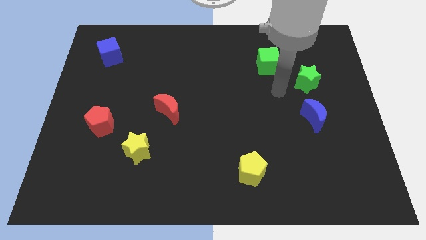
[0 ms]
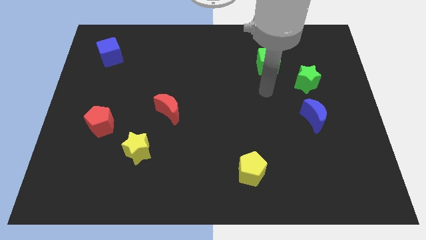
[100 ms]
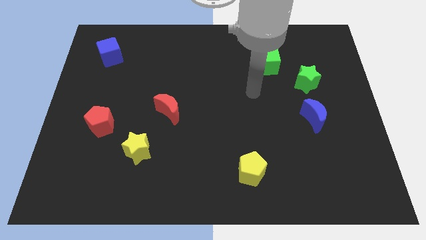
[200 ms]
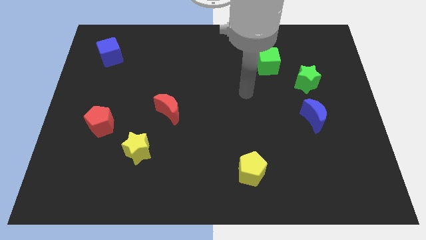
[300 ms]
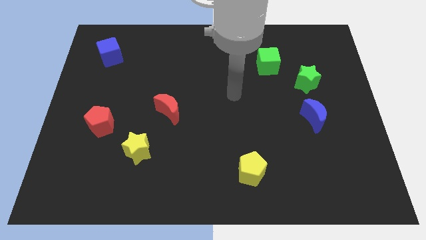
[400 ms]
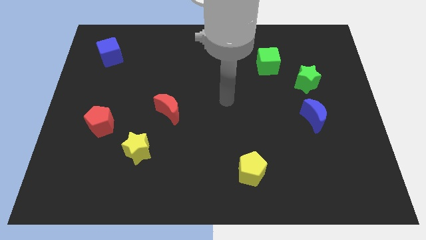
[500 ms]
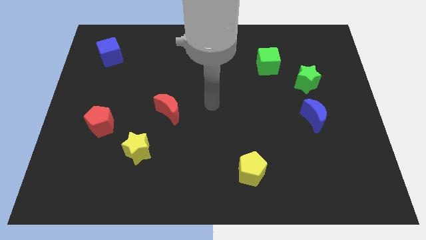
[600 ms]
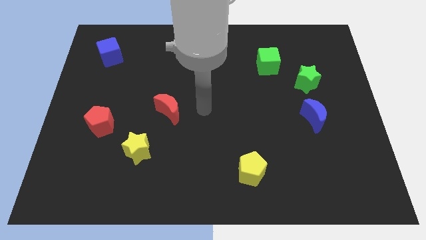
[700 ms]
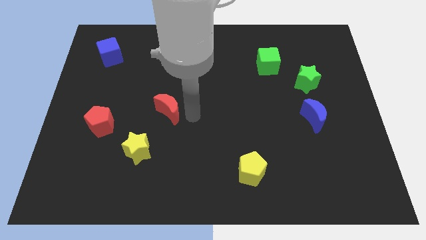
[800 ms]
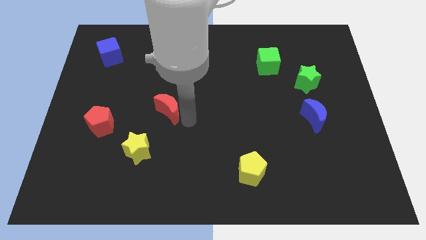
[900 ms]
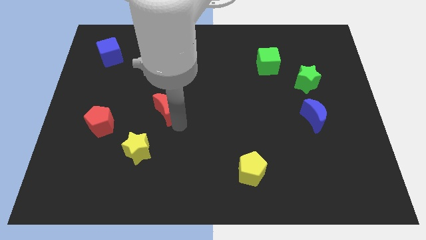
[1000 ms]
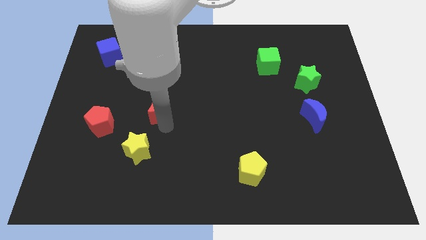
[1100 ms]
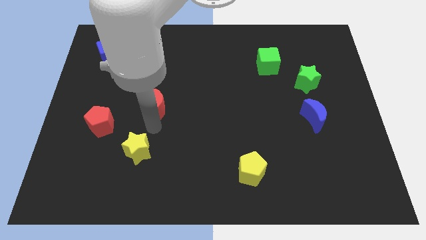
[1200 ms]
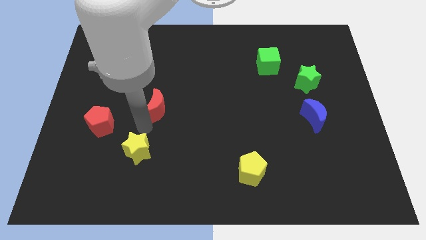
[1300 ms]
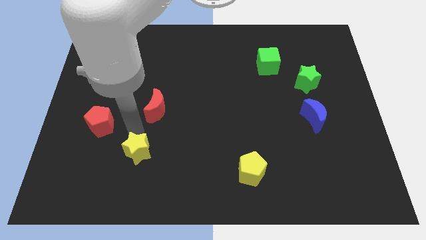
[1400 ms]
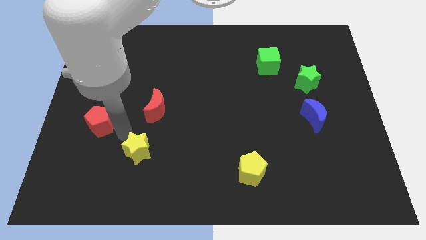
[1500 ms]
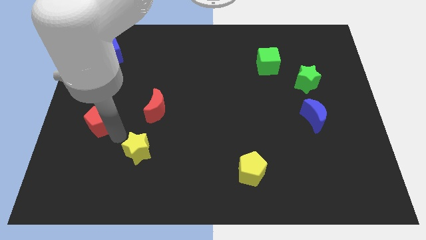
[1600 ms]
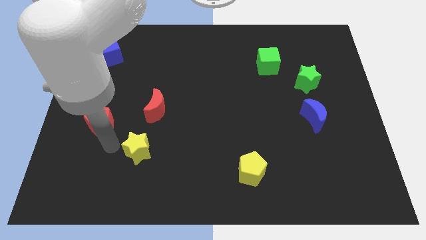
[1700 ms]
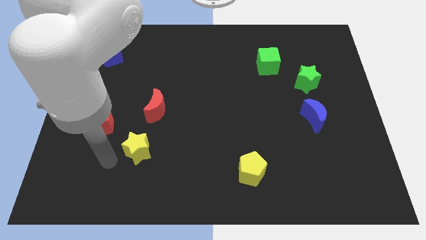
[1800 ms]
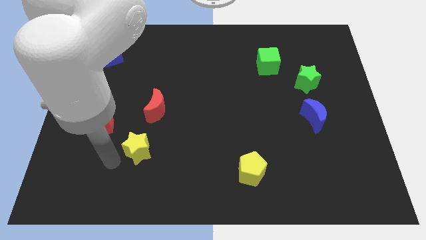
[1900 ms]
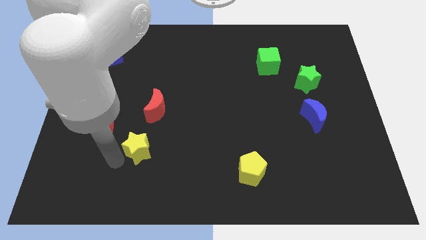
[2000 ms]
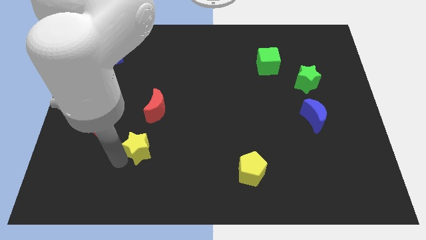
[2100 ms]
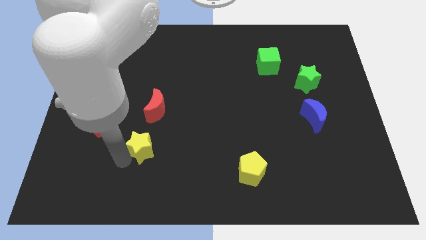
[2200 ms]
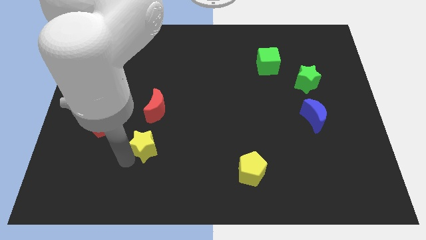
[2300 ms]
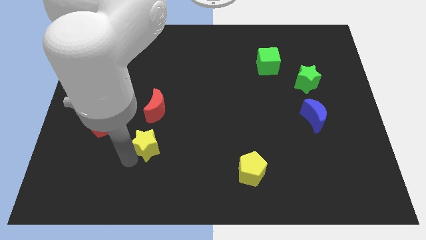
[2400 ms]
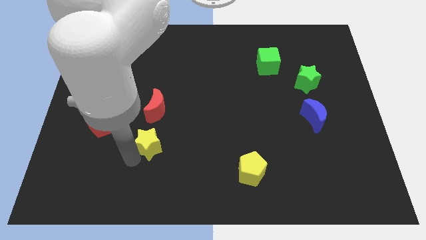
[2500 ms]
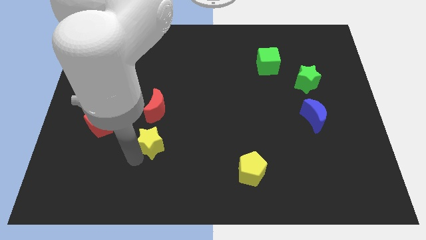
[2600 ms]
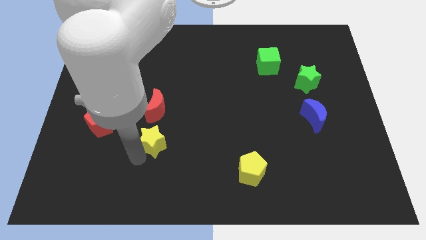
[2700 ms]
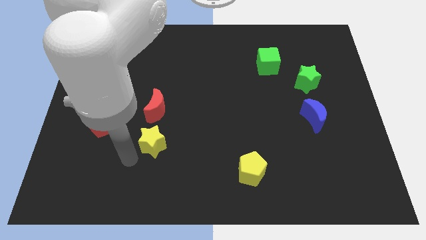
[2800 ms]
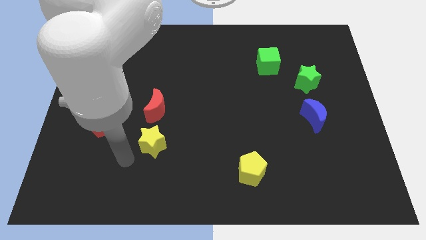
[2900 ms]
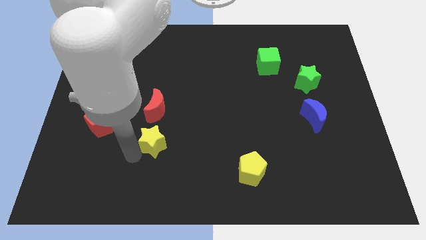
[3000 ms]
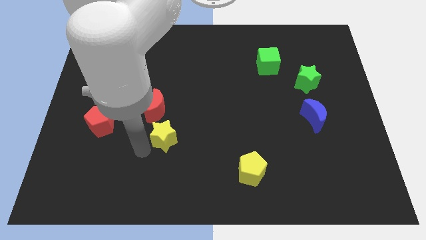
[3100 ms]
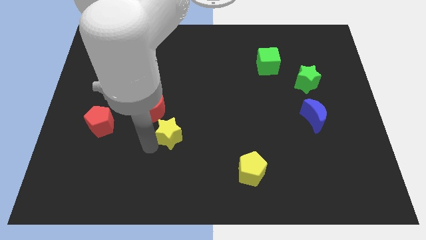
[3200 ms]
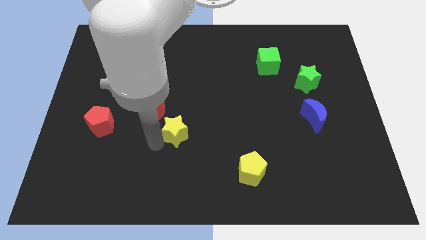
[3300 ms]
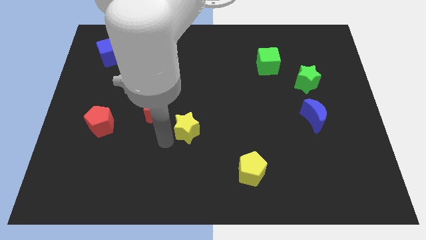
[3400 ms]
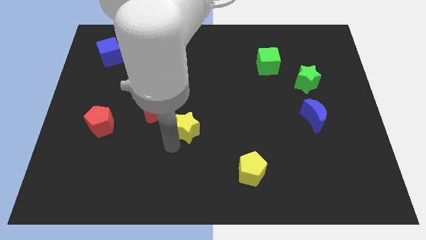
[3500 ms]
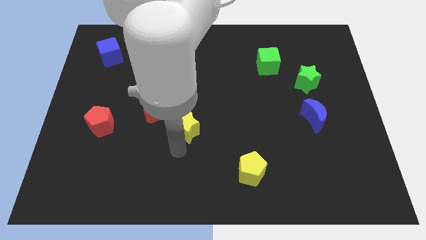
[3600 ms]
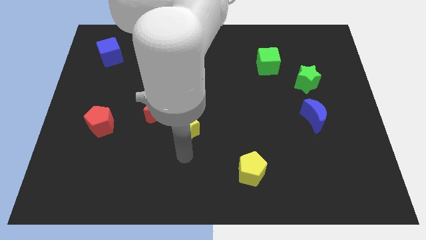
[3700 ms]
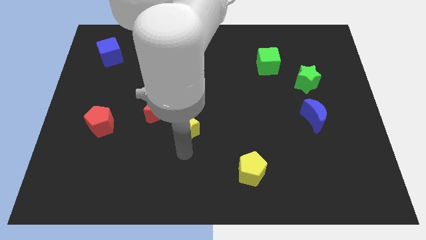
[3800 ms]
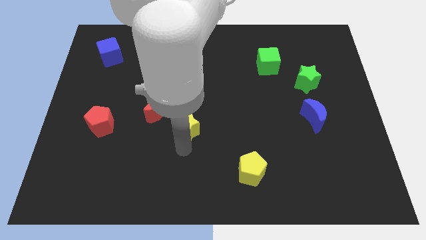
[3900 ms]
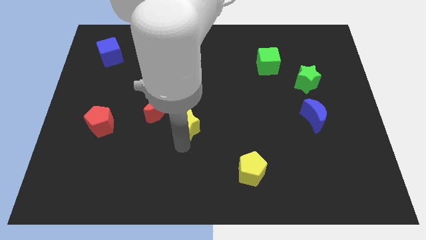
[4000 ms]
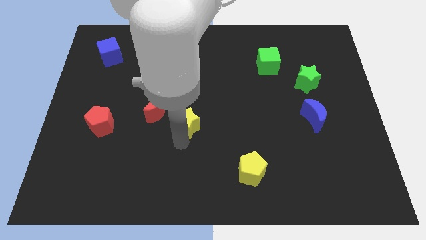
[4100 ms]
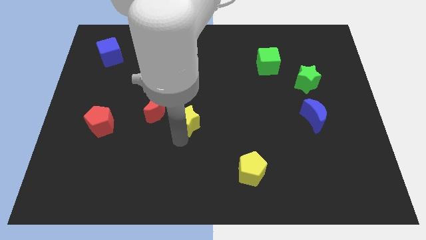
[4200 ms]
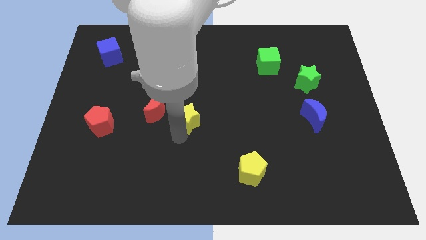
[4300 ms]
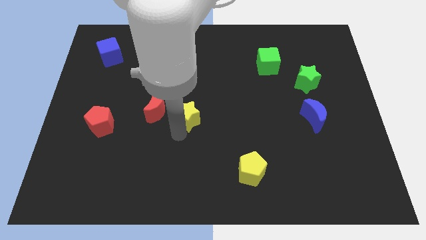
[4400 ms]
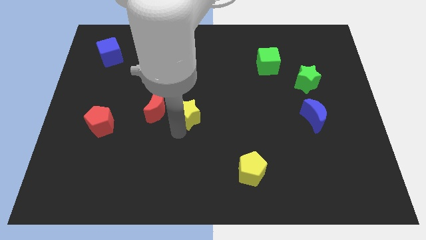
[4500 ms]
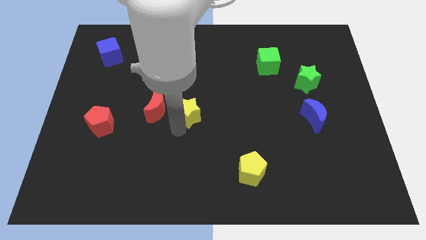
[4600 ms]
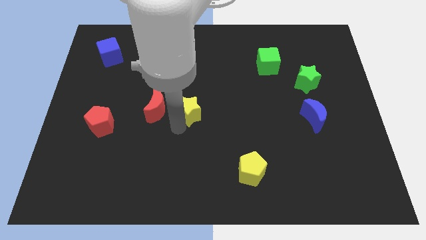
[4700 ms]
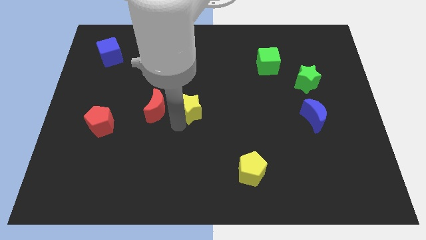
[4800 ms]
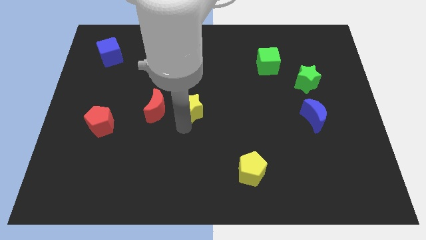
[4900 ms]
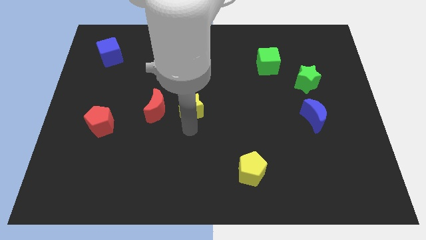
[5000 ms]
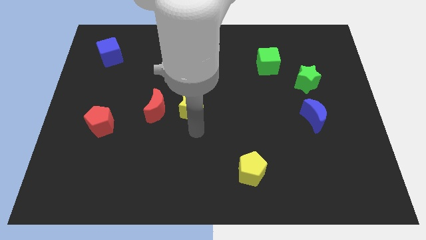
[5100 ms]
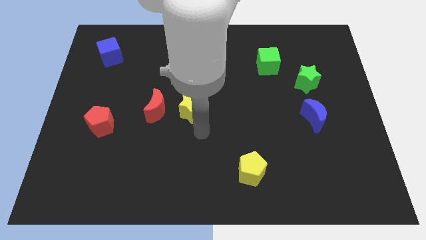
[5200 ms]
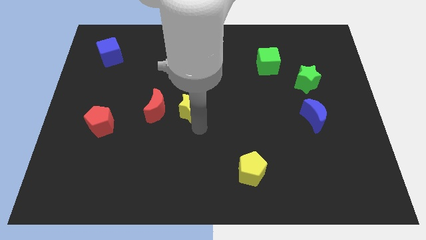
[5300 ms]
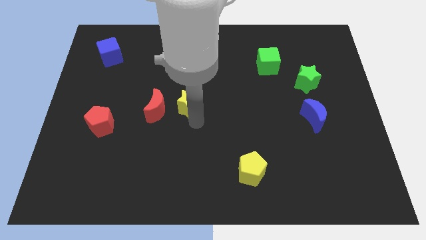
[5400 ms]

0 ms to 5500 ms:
move the yellow star to the top right side of the red moon

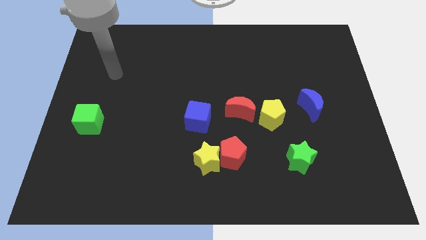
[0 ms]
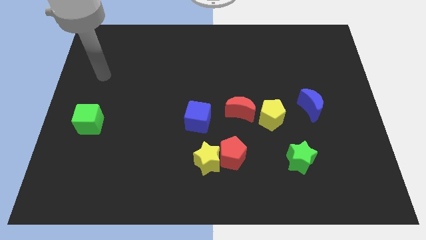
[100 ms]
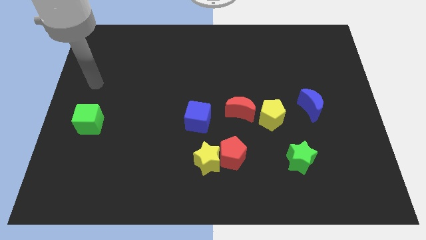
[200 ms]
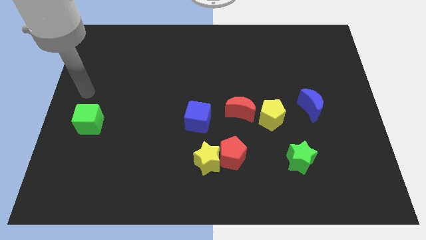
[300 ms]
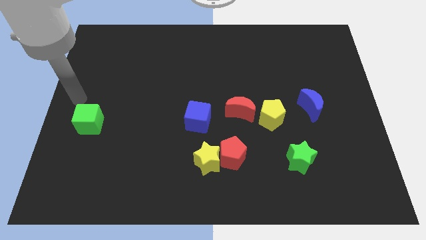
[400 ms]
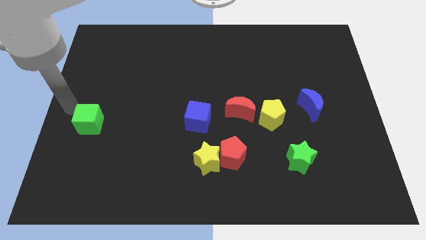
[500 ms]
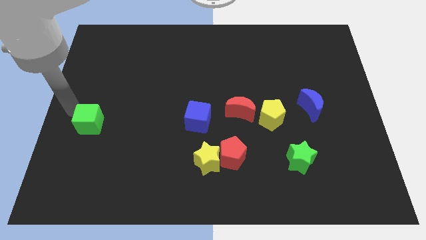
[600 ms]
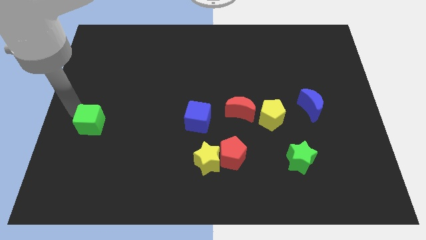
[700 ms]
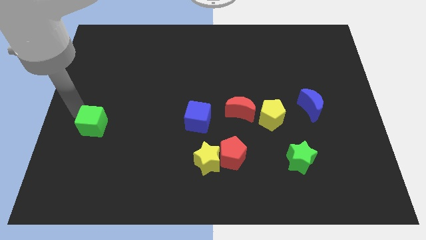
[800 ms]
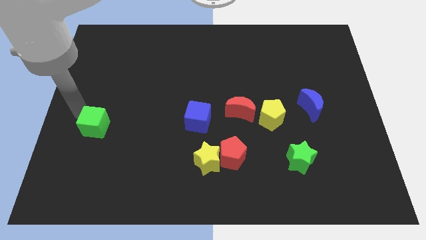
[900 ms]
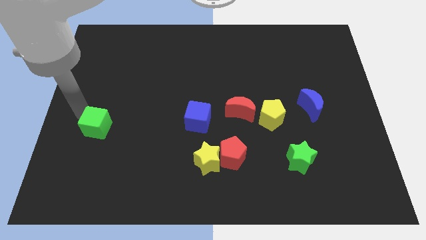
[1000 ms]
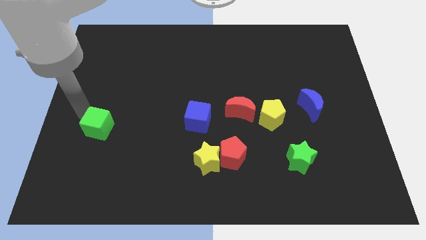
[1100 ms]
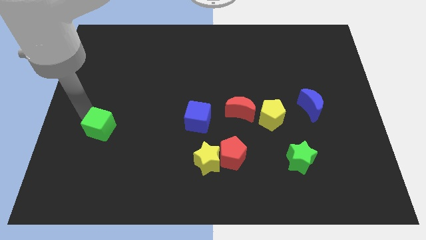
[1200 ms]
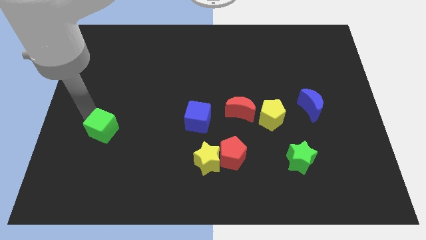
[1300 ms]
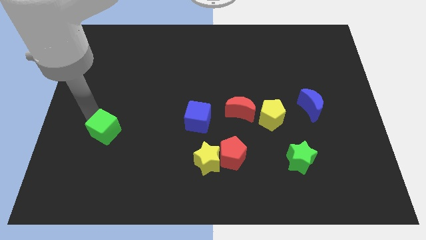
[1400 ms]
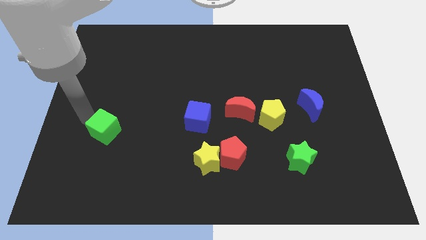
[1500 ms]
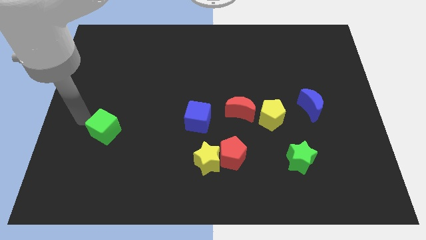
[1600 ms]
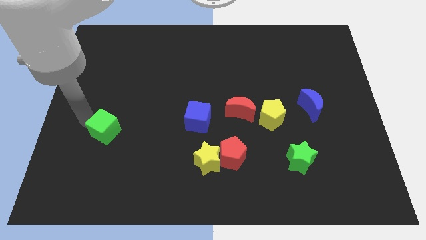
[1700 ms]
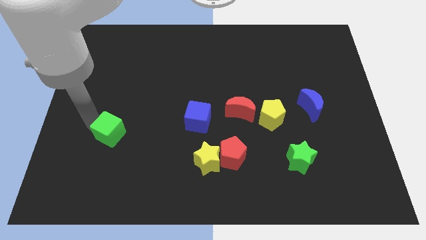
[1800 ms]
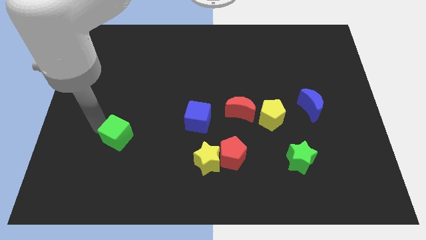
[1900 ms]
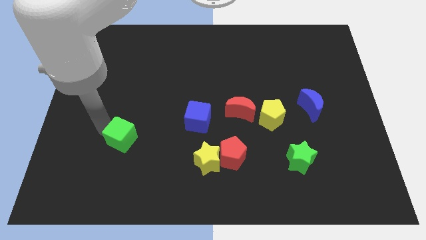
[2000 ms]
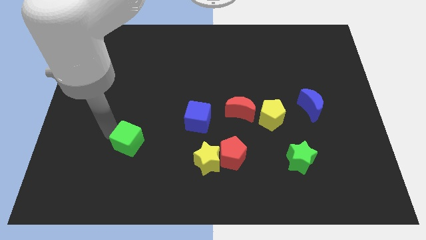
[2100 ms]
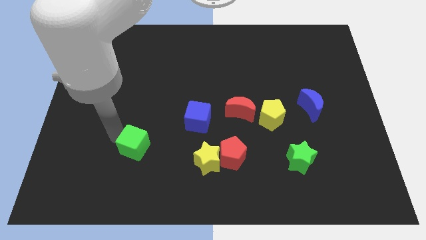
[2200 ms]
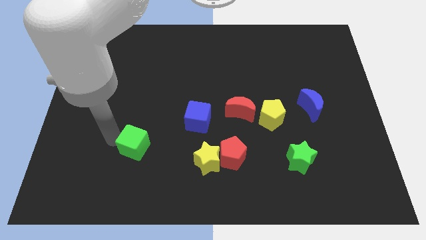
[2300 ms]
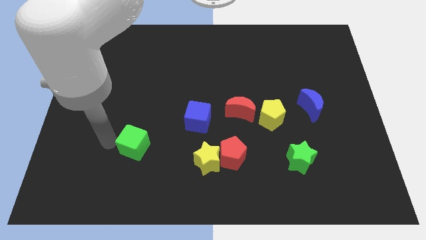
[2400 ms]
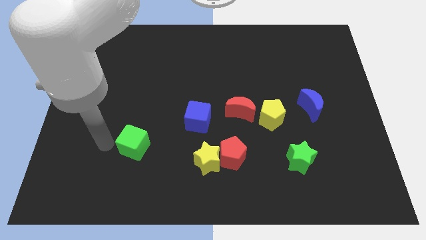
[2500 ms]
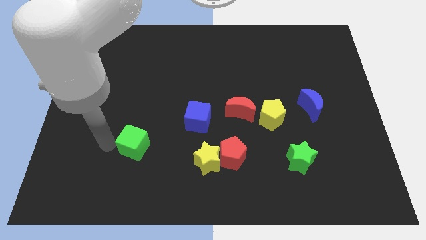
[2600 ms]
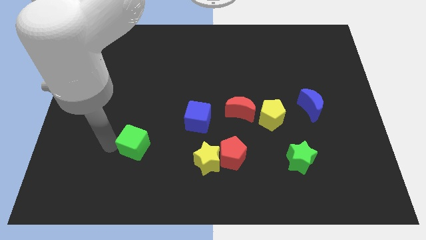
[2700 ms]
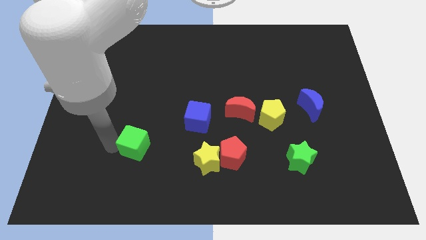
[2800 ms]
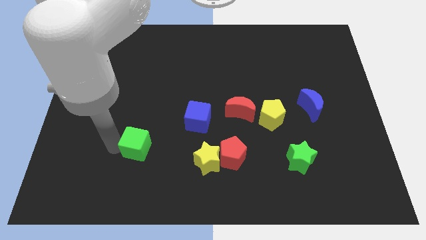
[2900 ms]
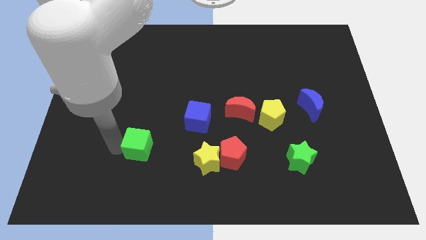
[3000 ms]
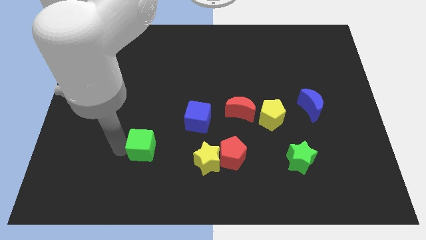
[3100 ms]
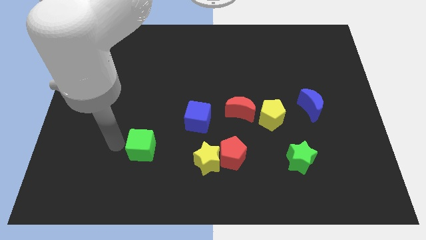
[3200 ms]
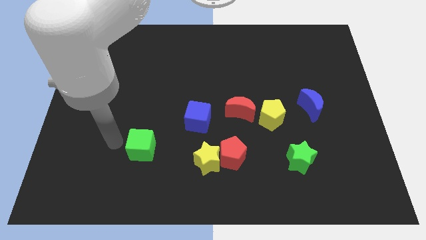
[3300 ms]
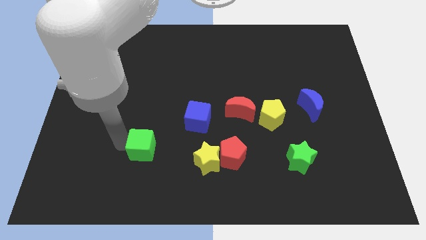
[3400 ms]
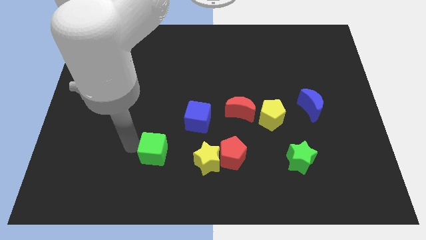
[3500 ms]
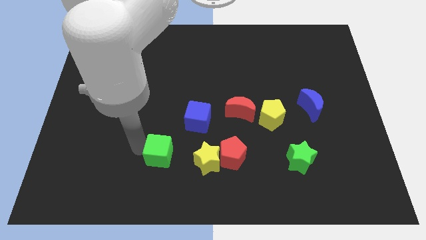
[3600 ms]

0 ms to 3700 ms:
slide the green cube to the left side of the red pentagon
